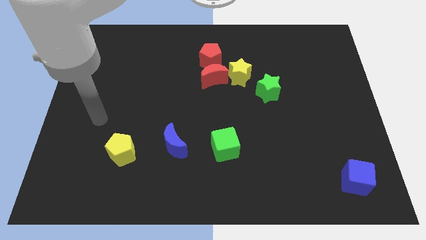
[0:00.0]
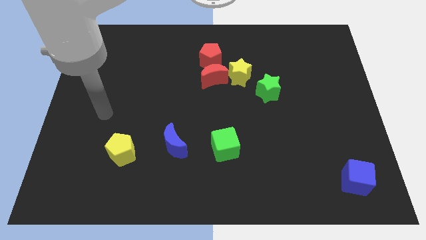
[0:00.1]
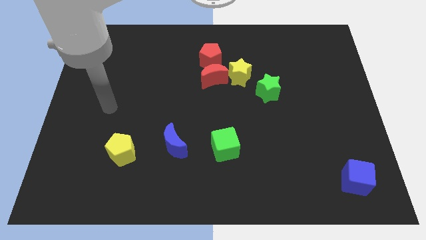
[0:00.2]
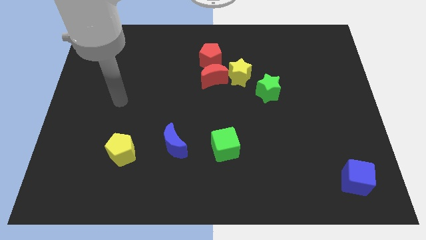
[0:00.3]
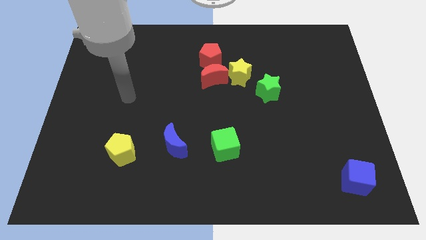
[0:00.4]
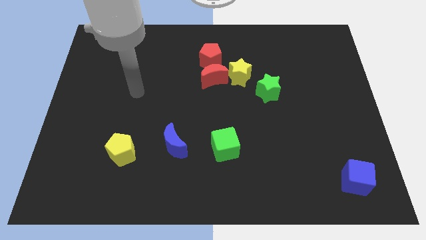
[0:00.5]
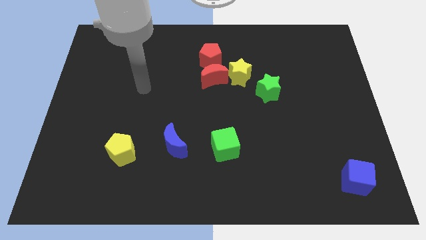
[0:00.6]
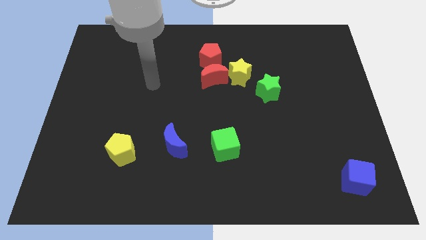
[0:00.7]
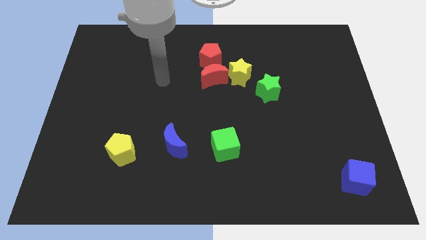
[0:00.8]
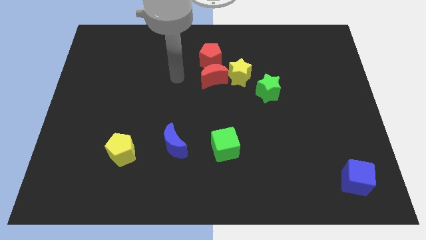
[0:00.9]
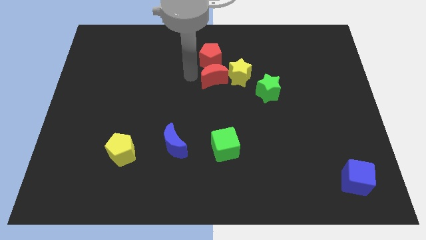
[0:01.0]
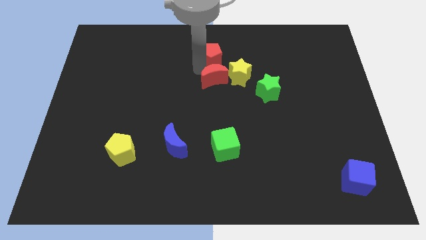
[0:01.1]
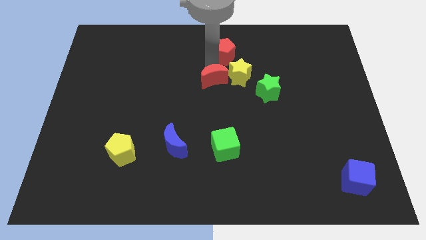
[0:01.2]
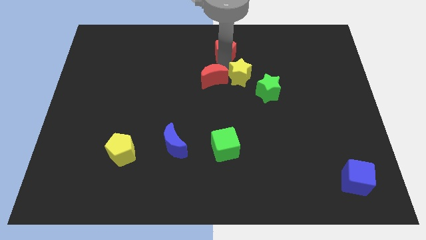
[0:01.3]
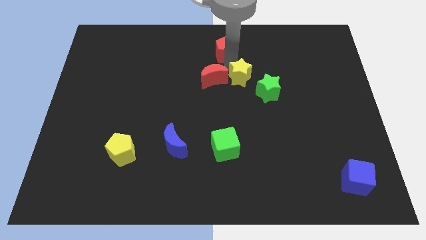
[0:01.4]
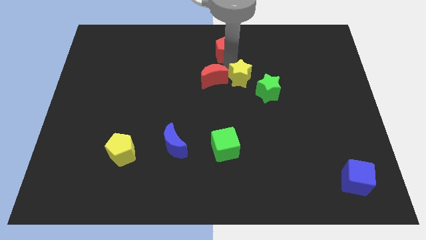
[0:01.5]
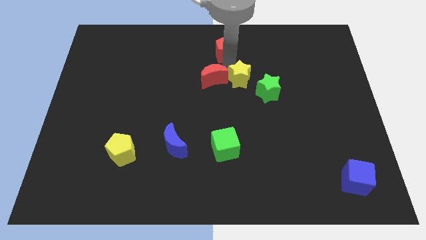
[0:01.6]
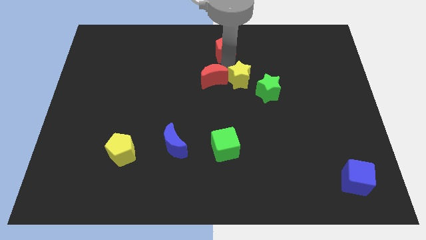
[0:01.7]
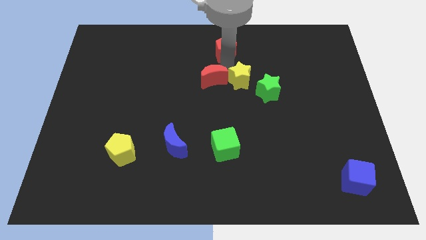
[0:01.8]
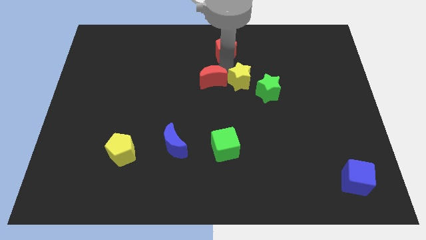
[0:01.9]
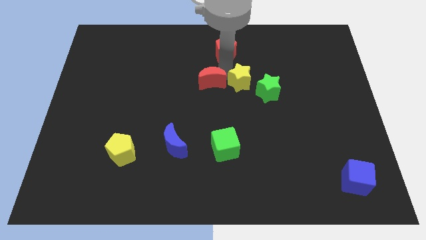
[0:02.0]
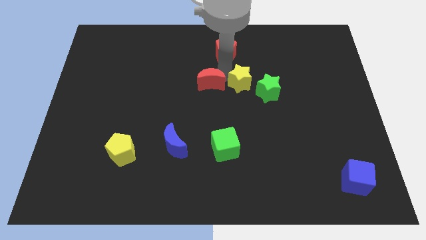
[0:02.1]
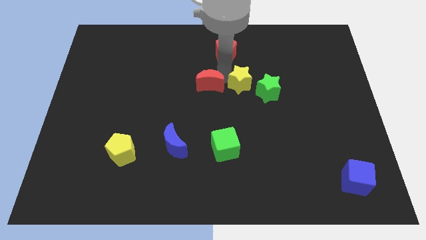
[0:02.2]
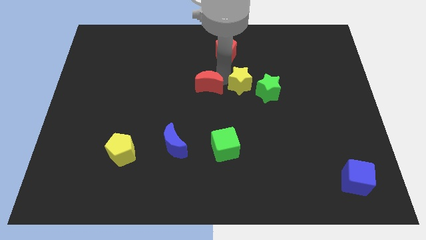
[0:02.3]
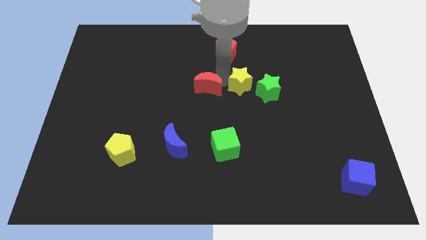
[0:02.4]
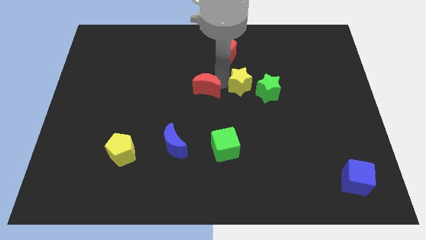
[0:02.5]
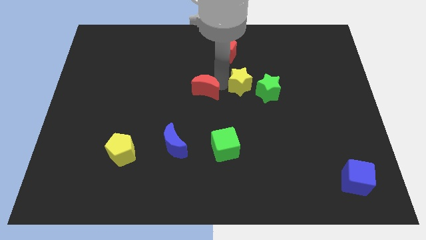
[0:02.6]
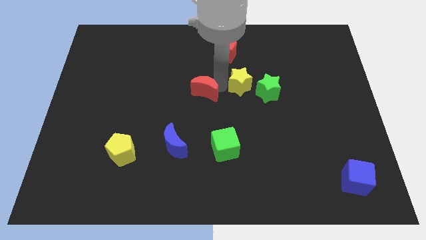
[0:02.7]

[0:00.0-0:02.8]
move the red moon away from the yellow star and red pentagon

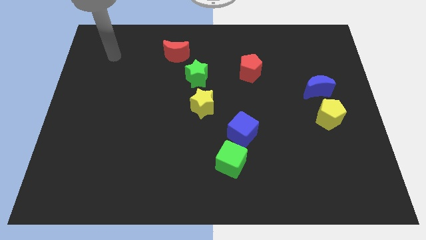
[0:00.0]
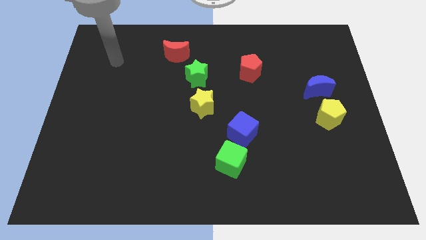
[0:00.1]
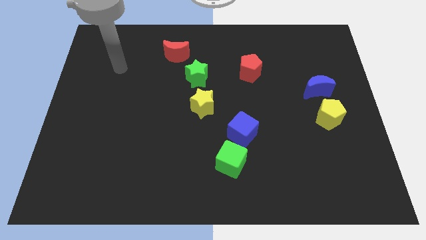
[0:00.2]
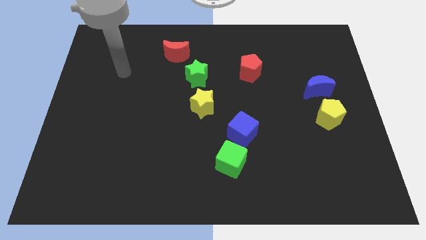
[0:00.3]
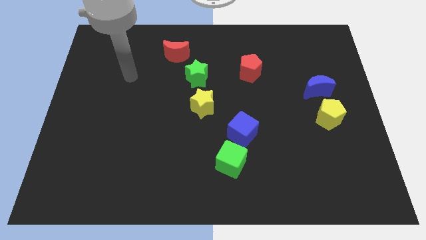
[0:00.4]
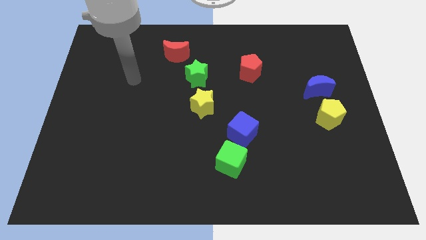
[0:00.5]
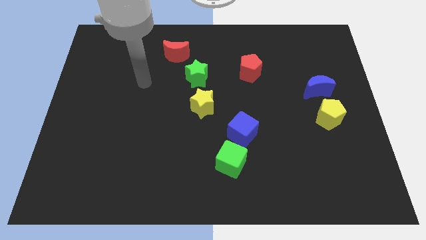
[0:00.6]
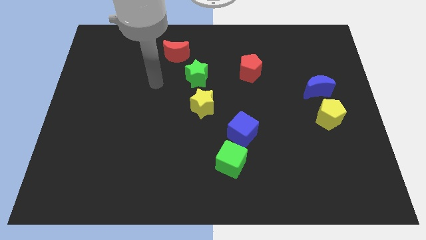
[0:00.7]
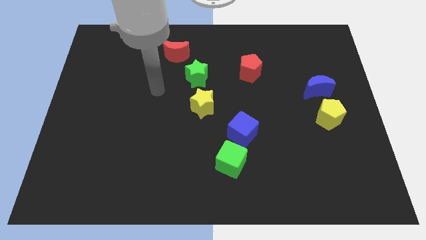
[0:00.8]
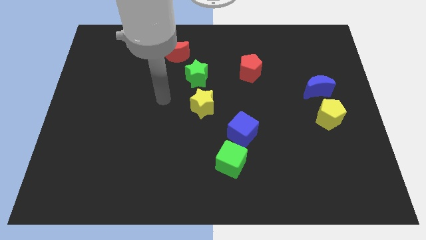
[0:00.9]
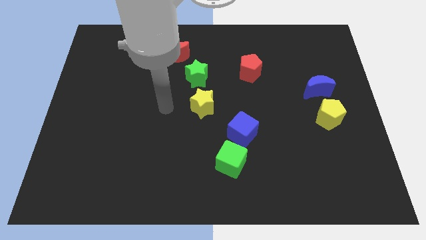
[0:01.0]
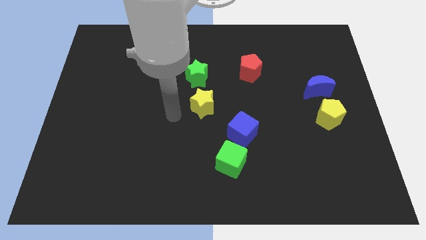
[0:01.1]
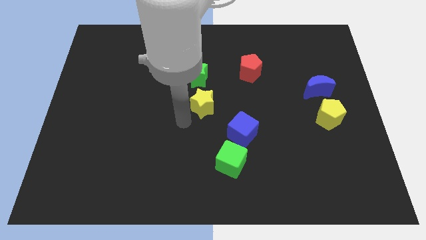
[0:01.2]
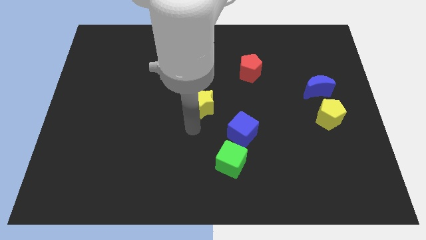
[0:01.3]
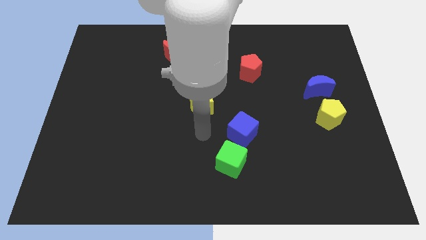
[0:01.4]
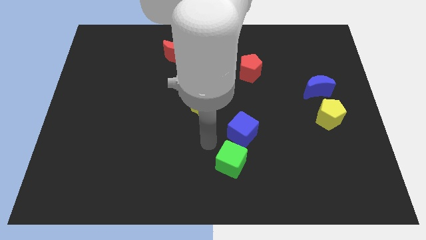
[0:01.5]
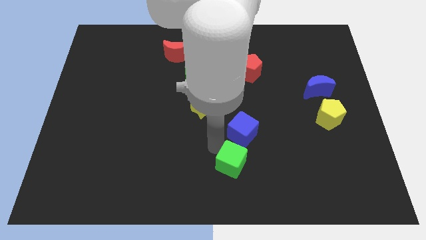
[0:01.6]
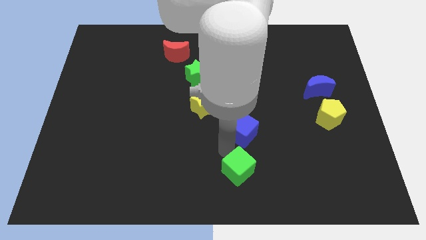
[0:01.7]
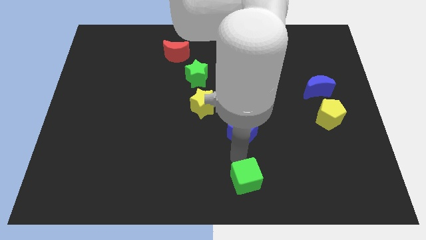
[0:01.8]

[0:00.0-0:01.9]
pull the blue cube apart from the green cube

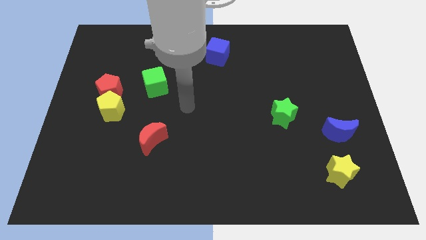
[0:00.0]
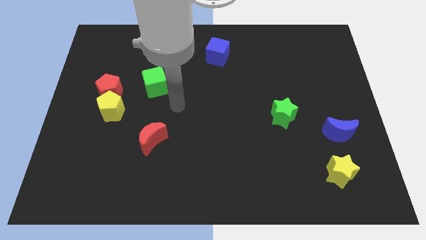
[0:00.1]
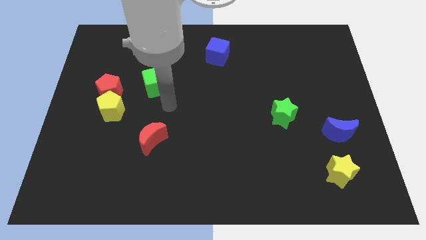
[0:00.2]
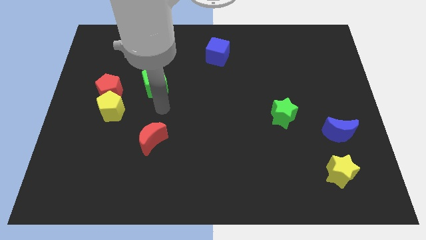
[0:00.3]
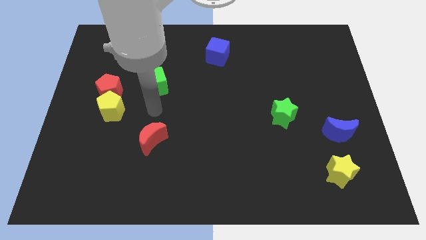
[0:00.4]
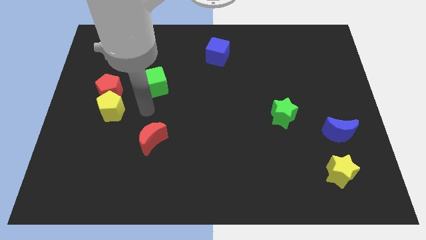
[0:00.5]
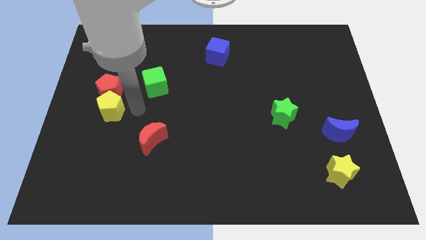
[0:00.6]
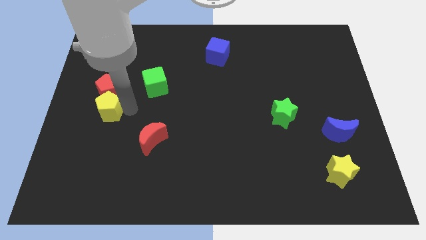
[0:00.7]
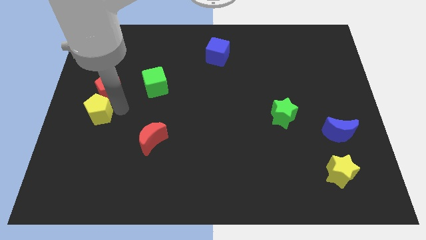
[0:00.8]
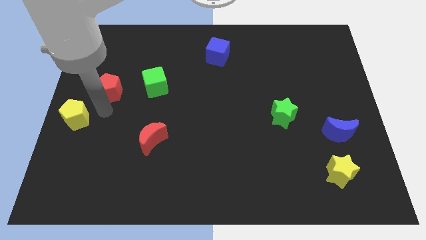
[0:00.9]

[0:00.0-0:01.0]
pull the red pentagon apart from the yellow pentagon

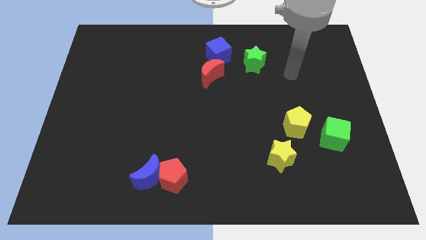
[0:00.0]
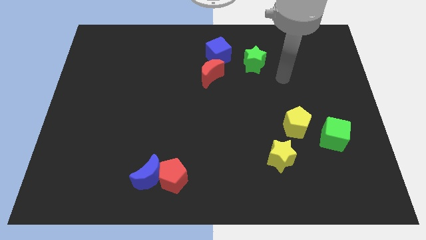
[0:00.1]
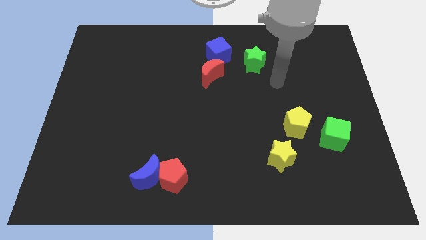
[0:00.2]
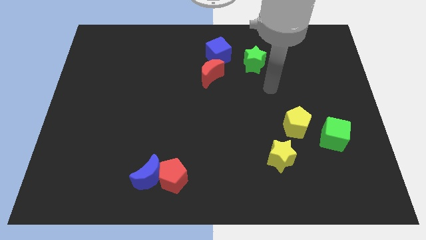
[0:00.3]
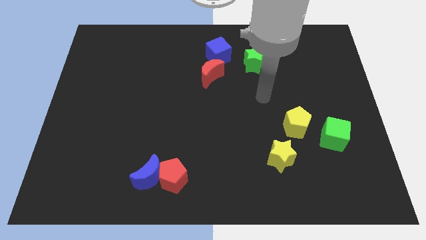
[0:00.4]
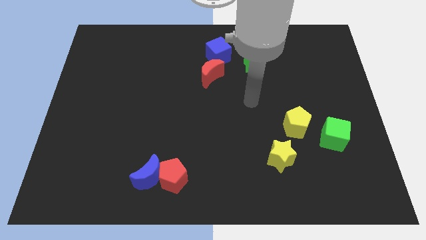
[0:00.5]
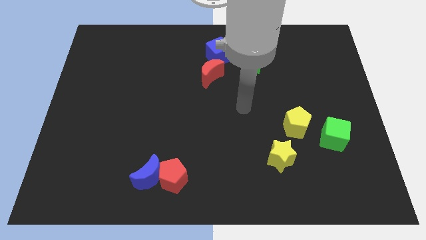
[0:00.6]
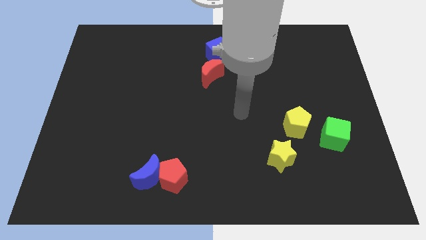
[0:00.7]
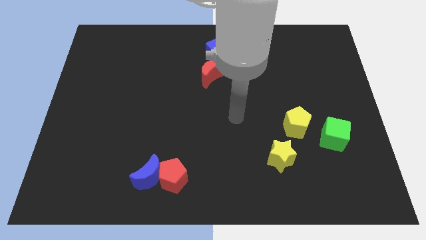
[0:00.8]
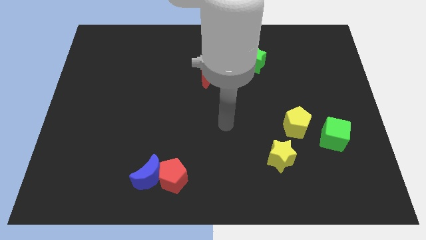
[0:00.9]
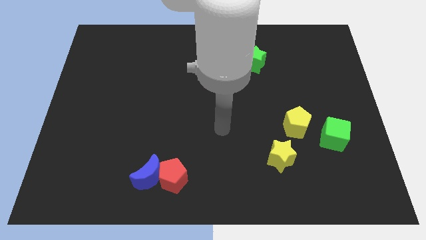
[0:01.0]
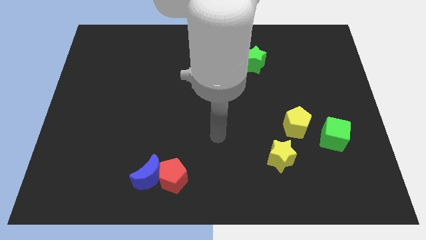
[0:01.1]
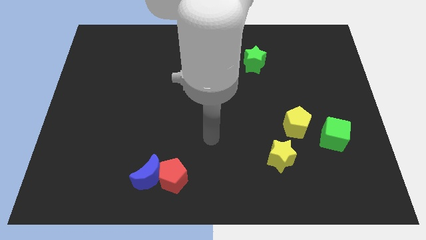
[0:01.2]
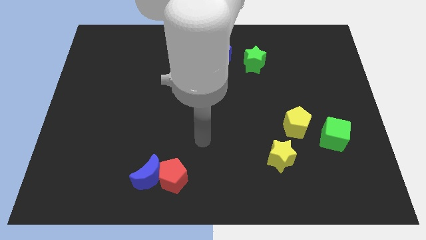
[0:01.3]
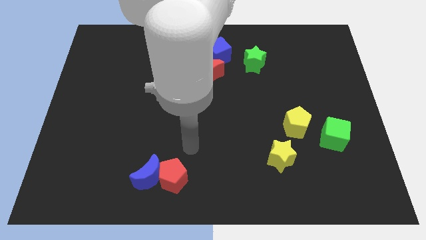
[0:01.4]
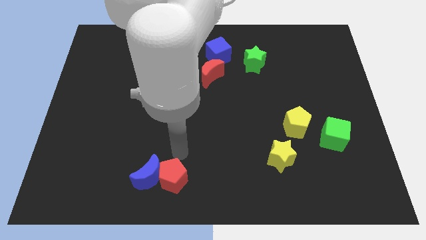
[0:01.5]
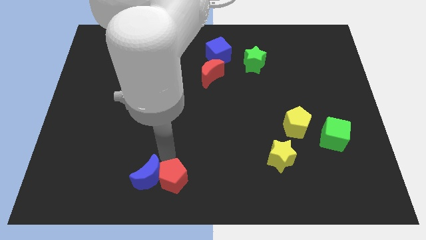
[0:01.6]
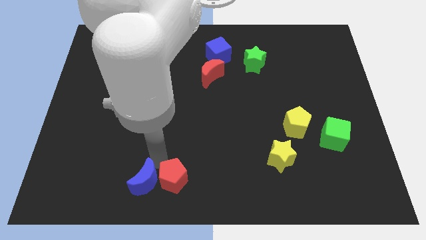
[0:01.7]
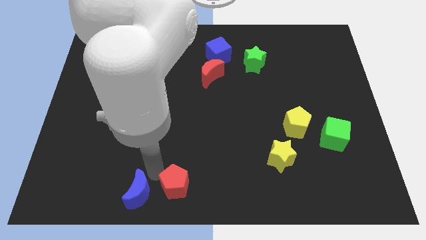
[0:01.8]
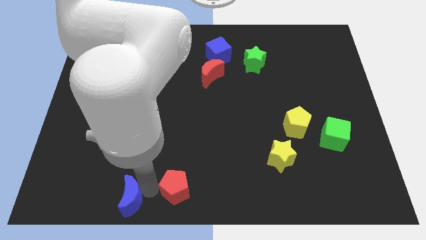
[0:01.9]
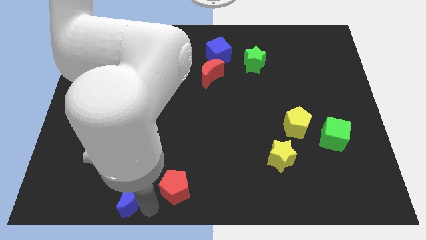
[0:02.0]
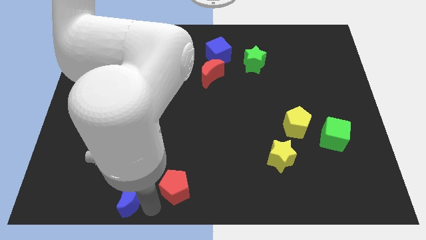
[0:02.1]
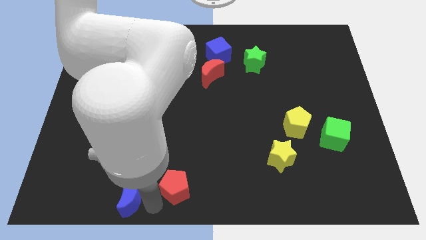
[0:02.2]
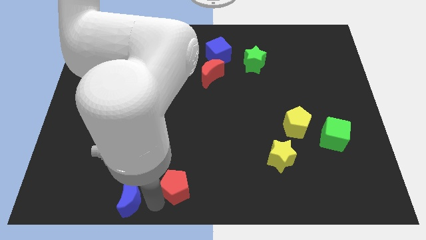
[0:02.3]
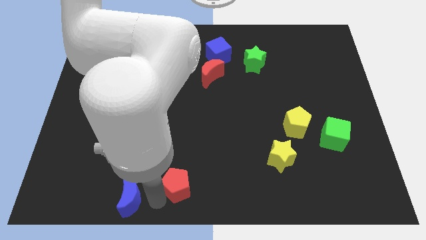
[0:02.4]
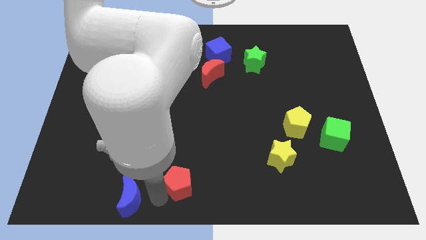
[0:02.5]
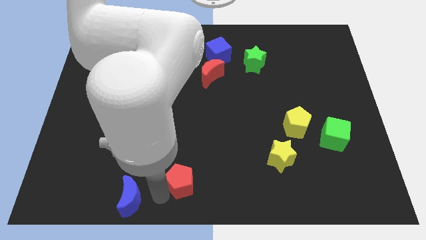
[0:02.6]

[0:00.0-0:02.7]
separate the red pentagon from the blue moon

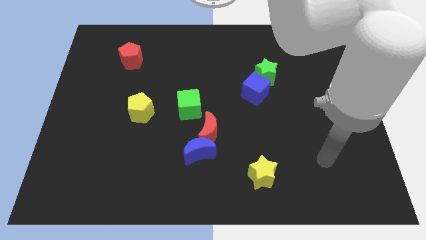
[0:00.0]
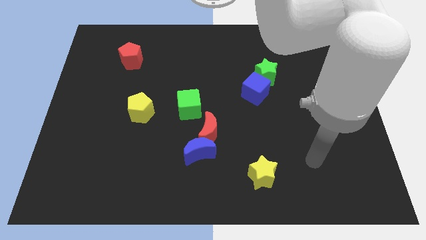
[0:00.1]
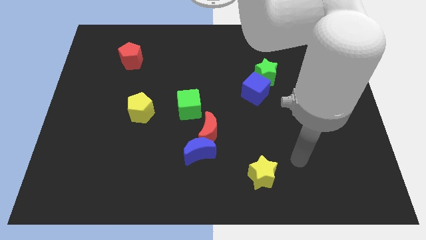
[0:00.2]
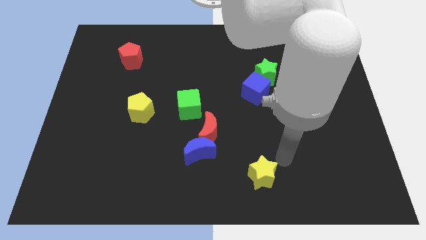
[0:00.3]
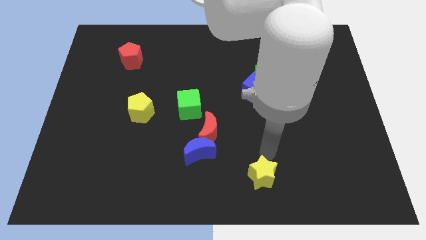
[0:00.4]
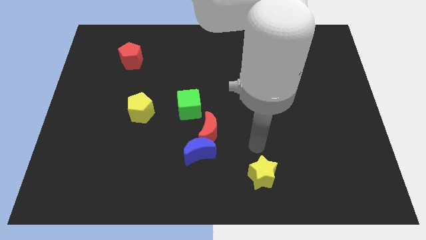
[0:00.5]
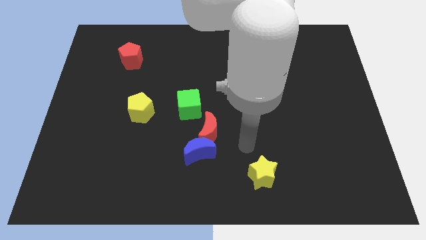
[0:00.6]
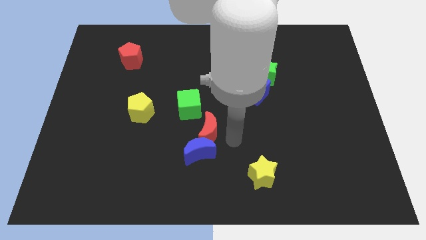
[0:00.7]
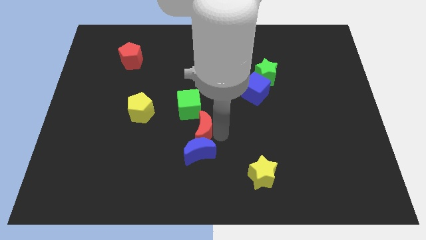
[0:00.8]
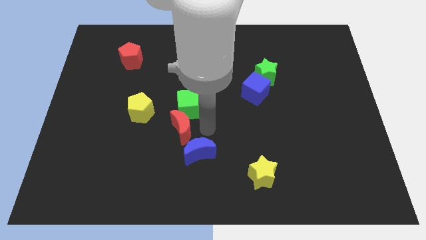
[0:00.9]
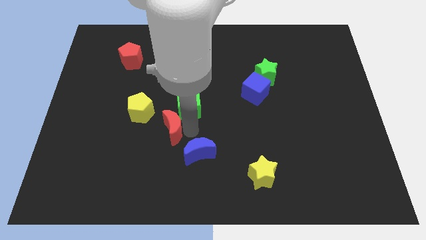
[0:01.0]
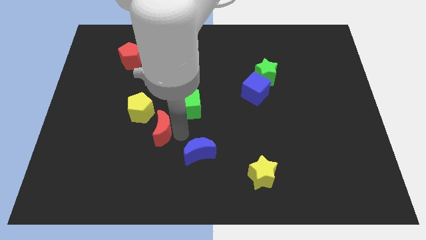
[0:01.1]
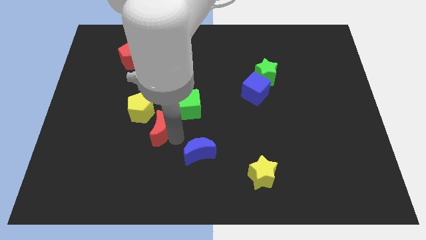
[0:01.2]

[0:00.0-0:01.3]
move the blue moon away from the red moon
